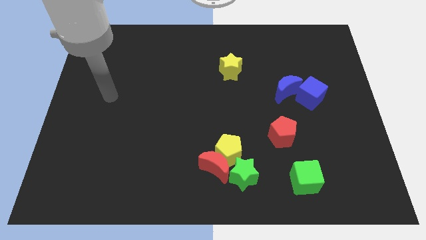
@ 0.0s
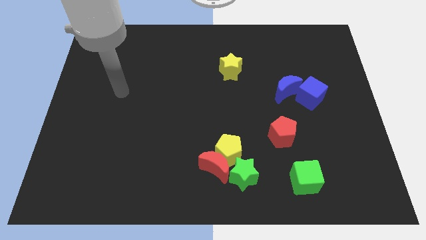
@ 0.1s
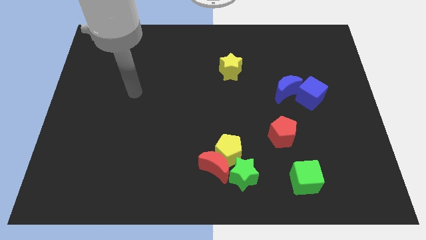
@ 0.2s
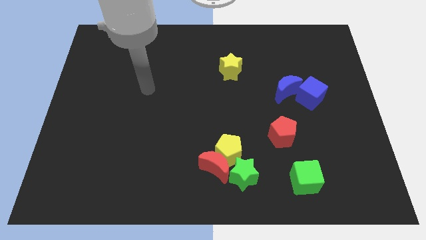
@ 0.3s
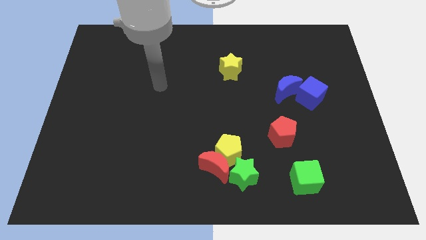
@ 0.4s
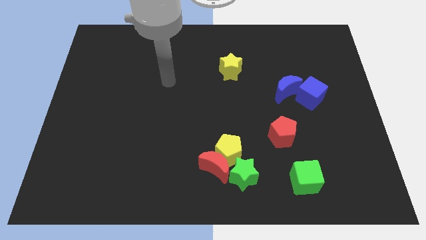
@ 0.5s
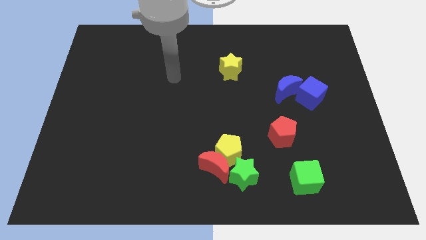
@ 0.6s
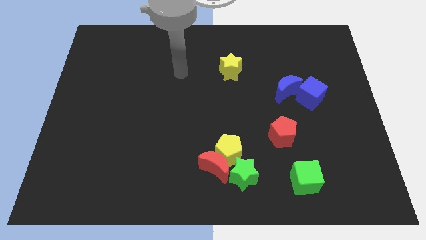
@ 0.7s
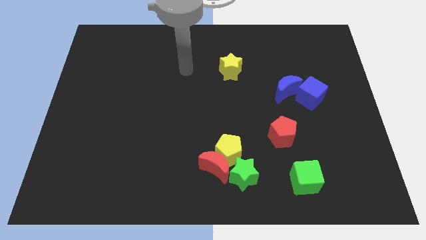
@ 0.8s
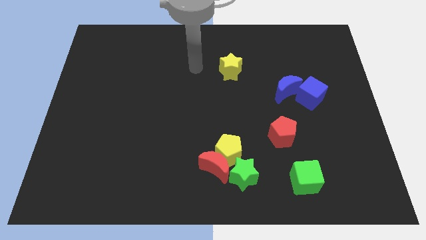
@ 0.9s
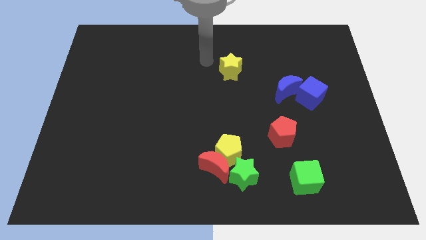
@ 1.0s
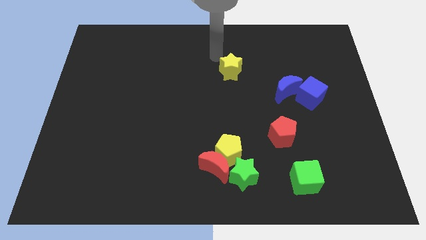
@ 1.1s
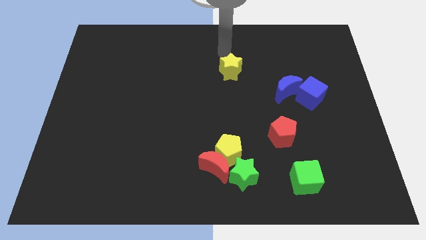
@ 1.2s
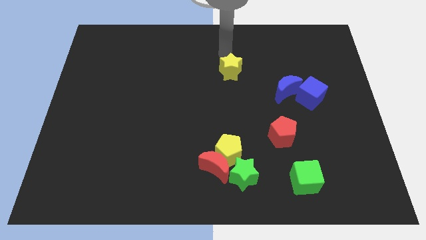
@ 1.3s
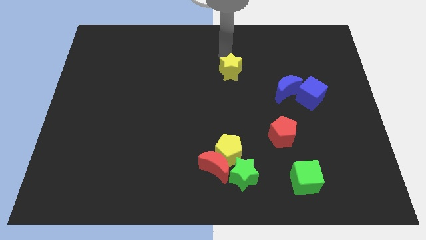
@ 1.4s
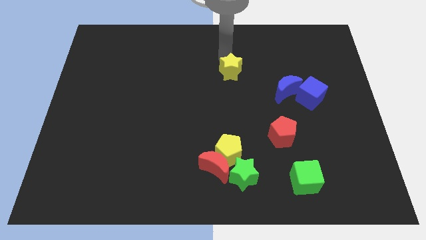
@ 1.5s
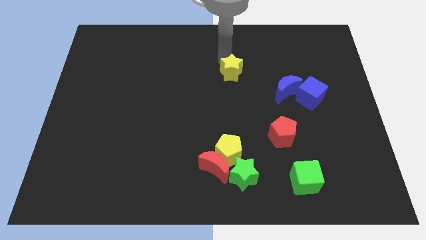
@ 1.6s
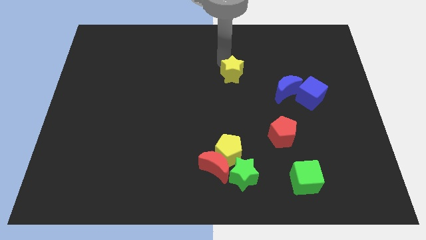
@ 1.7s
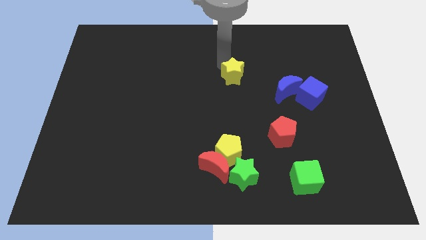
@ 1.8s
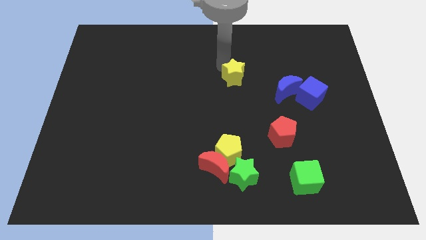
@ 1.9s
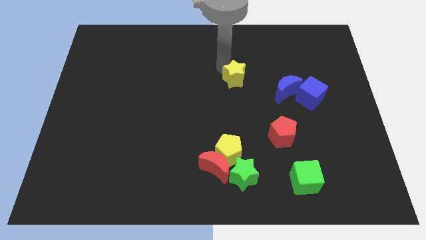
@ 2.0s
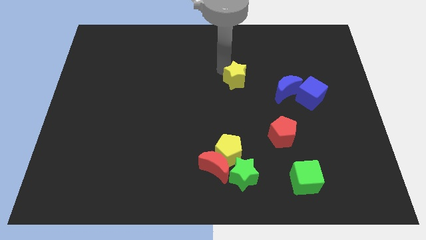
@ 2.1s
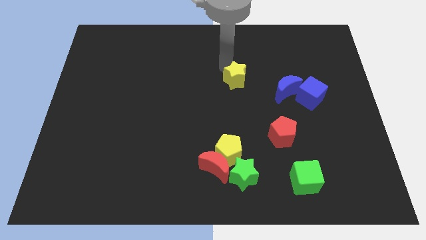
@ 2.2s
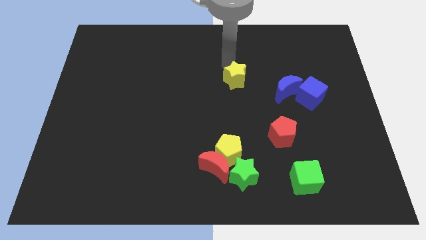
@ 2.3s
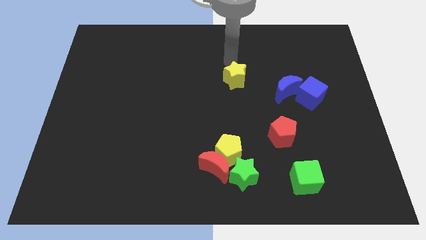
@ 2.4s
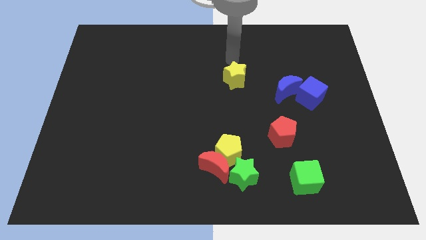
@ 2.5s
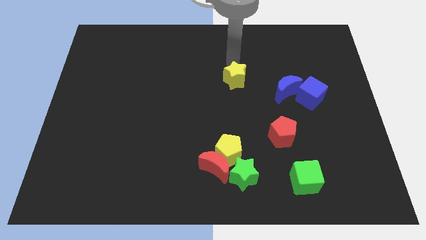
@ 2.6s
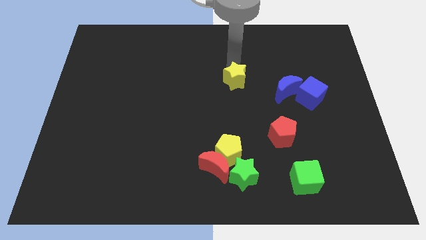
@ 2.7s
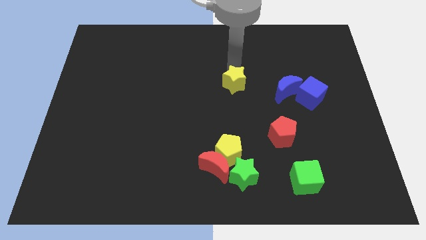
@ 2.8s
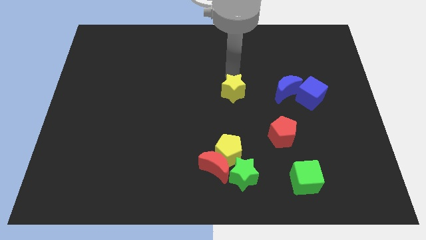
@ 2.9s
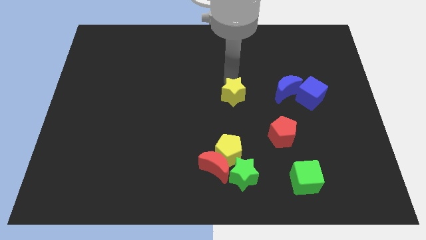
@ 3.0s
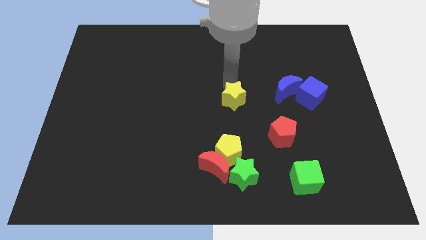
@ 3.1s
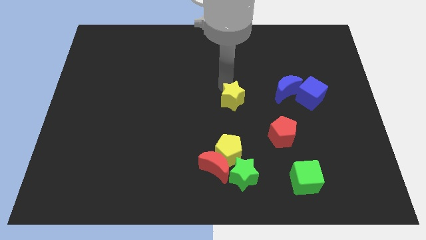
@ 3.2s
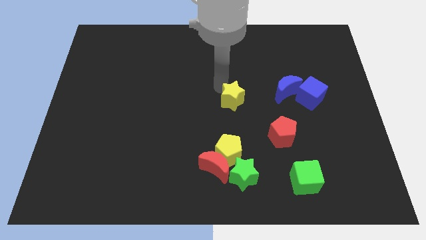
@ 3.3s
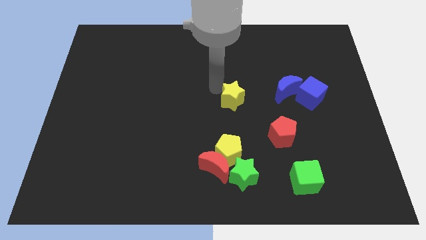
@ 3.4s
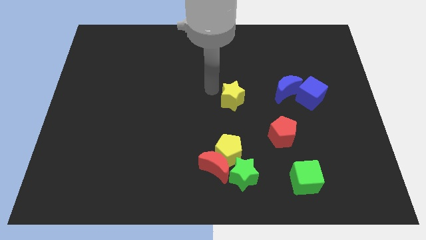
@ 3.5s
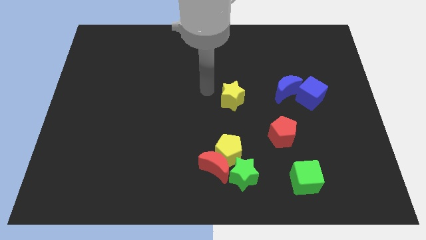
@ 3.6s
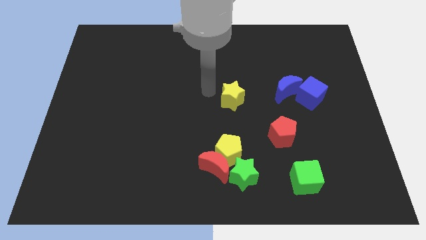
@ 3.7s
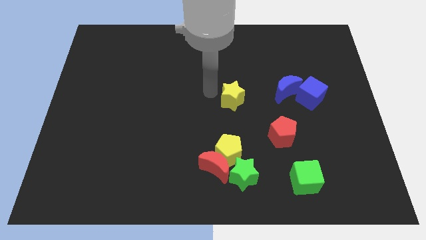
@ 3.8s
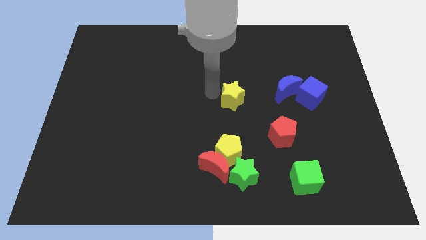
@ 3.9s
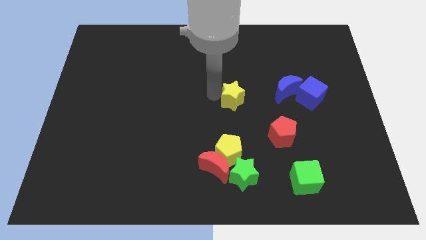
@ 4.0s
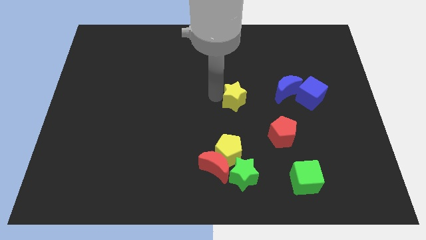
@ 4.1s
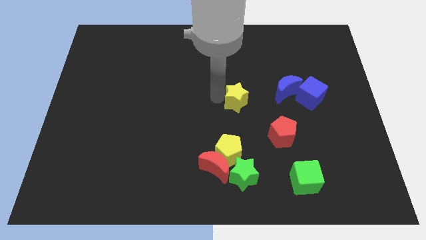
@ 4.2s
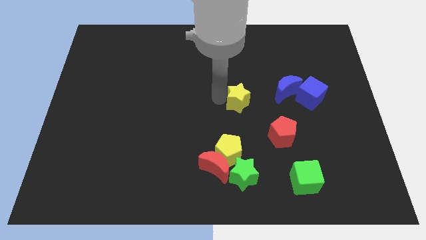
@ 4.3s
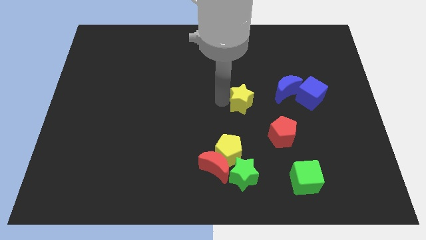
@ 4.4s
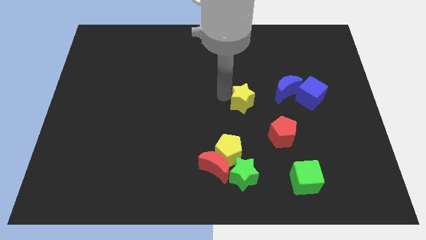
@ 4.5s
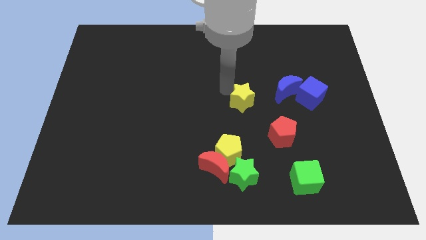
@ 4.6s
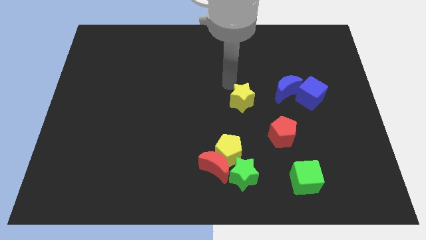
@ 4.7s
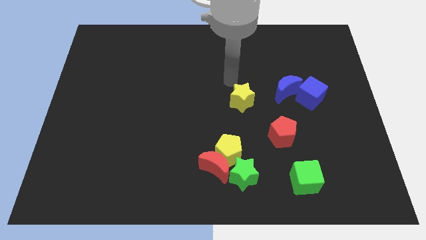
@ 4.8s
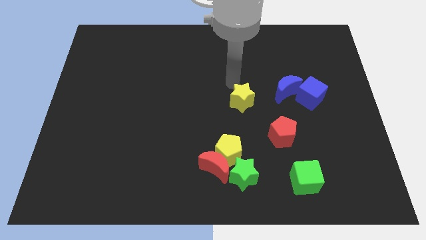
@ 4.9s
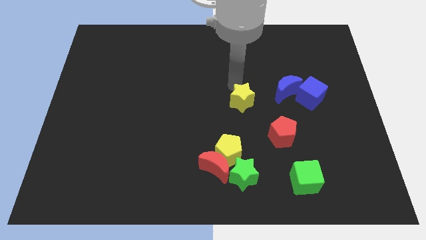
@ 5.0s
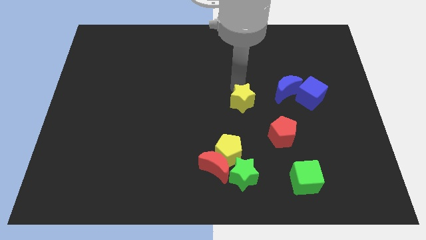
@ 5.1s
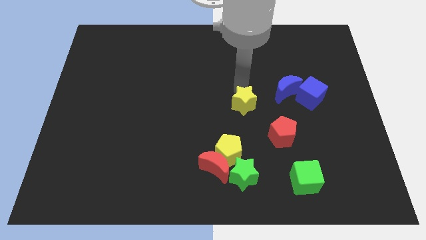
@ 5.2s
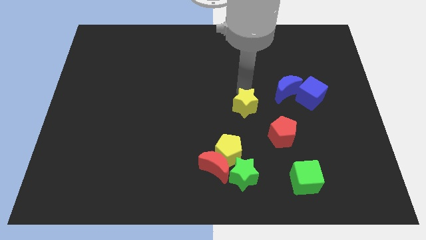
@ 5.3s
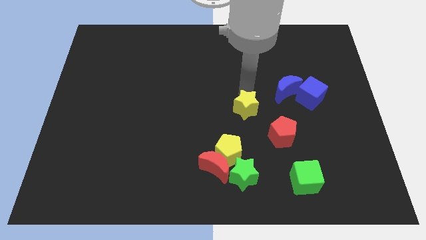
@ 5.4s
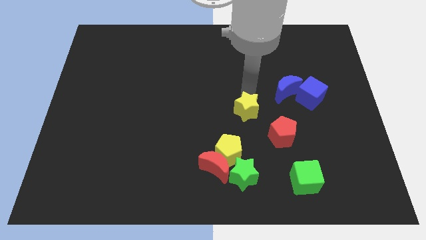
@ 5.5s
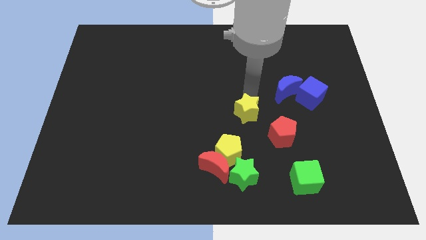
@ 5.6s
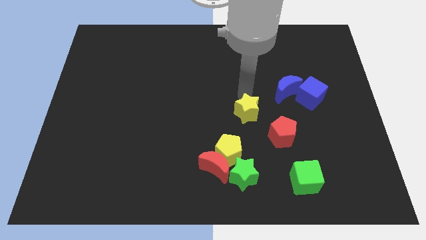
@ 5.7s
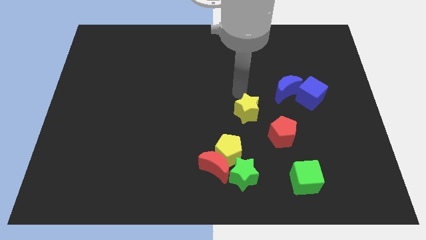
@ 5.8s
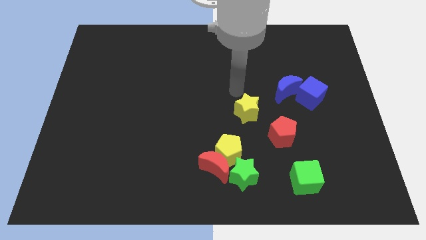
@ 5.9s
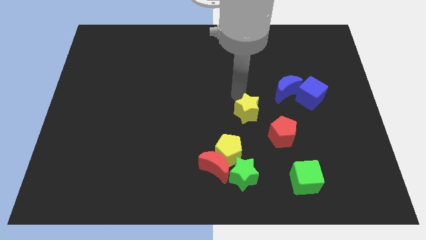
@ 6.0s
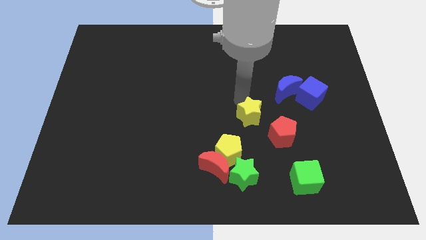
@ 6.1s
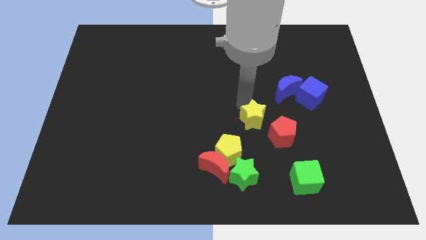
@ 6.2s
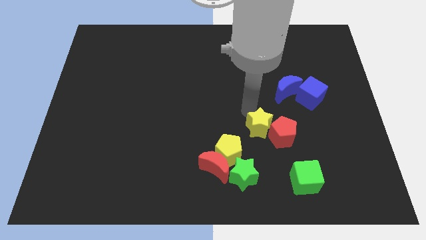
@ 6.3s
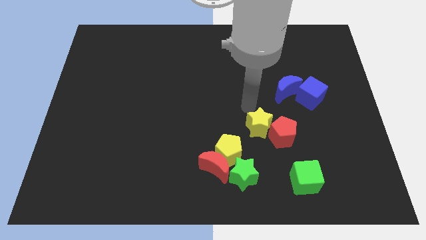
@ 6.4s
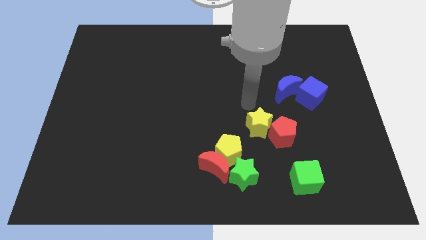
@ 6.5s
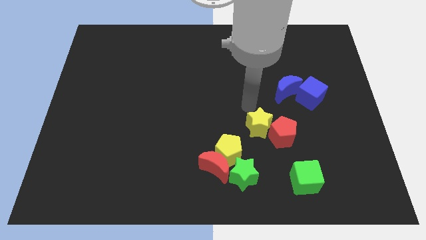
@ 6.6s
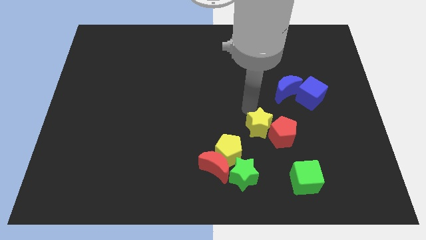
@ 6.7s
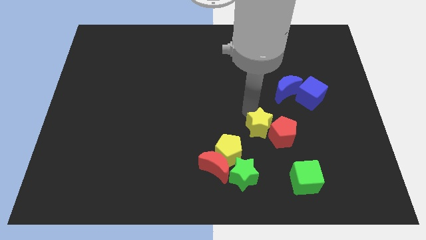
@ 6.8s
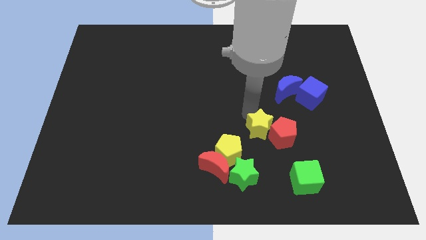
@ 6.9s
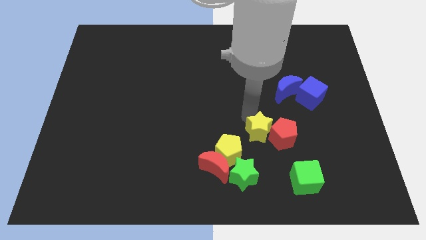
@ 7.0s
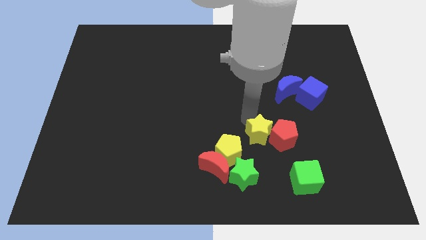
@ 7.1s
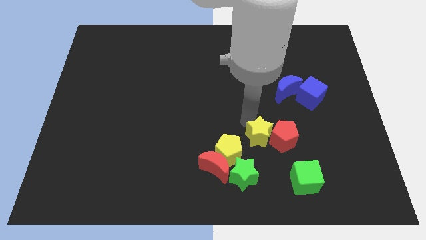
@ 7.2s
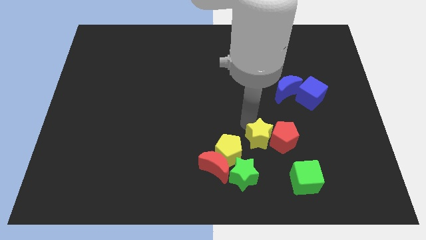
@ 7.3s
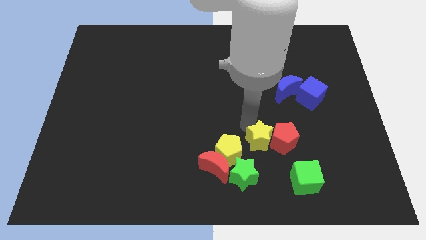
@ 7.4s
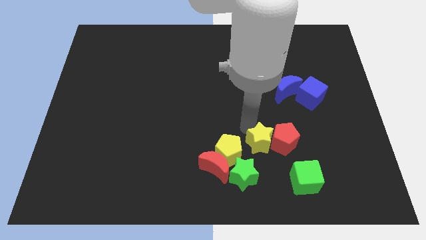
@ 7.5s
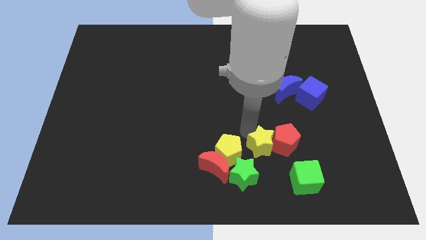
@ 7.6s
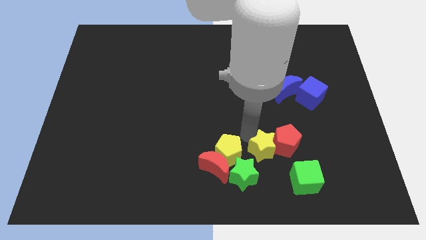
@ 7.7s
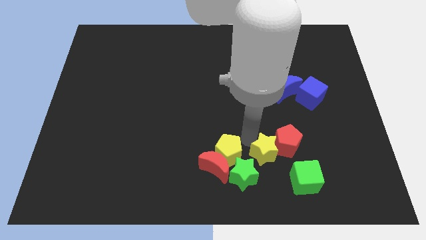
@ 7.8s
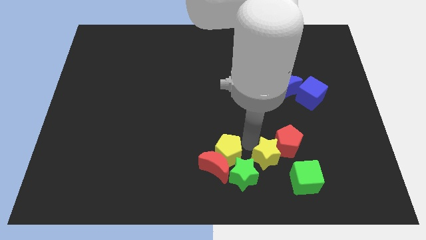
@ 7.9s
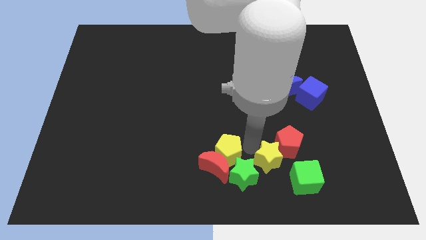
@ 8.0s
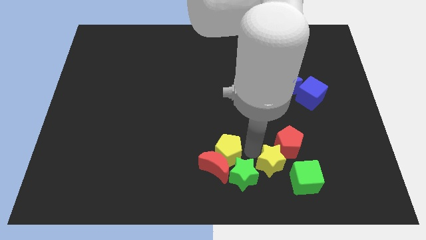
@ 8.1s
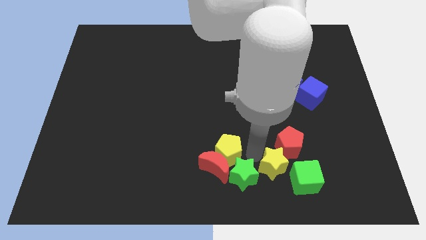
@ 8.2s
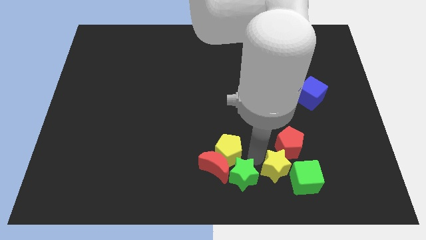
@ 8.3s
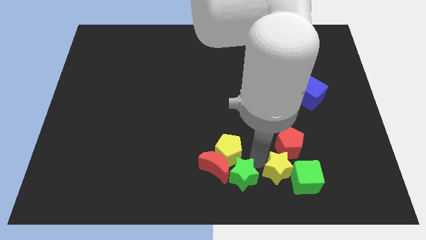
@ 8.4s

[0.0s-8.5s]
move the yellow star close to the green cube
